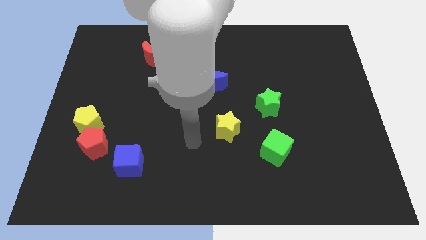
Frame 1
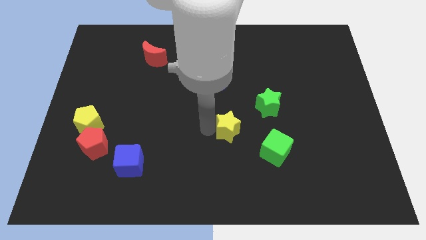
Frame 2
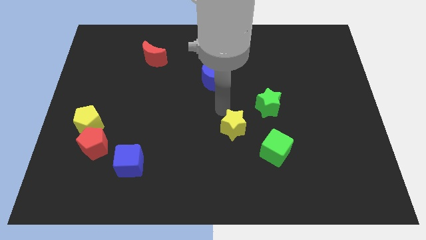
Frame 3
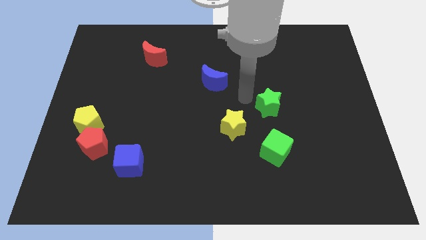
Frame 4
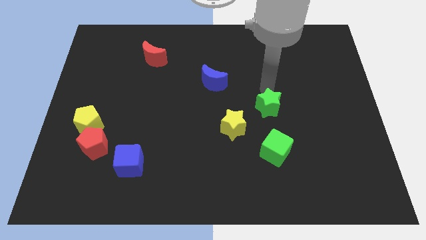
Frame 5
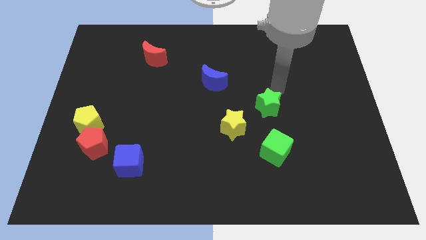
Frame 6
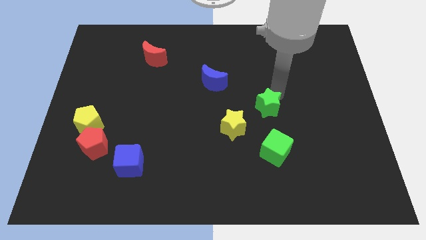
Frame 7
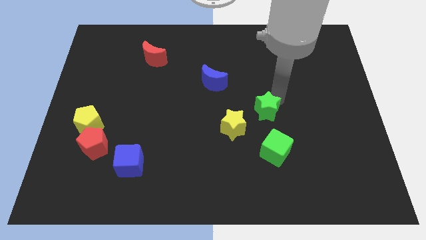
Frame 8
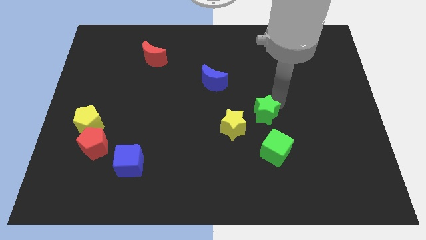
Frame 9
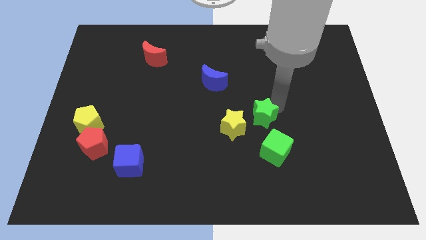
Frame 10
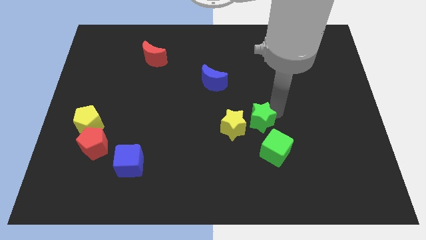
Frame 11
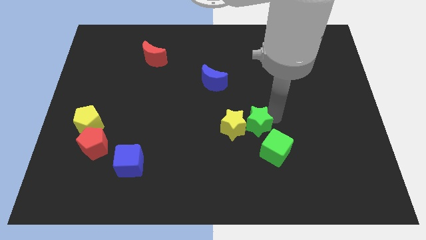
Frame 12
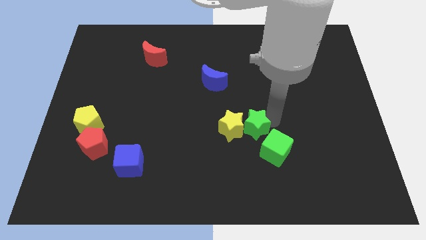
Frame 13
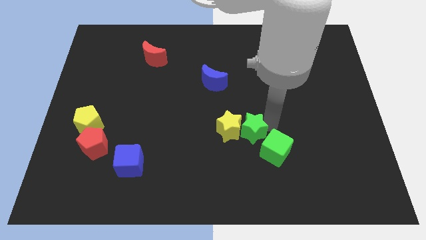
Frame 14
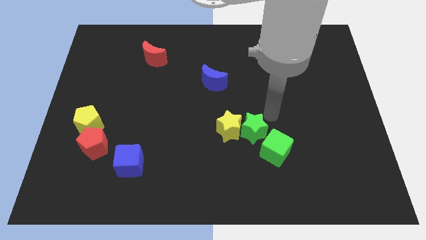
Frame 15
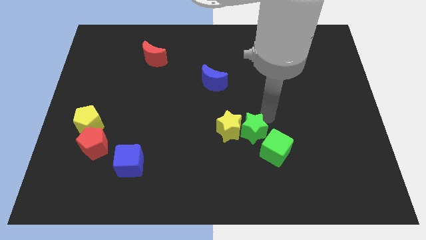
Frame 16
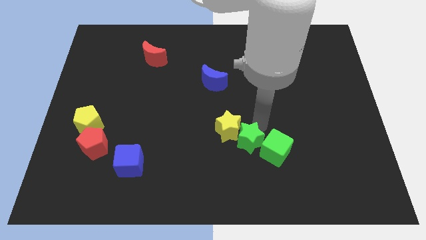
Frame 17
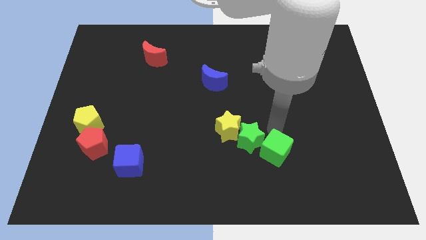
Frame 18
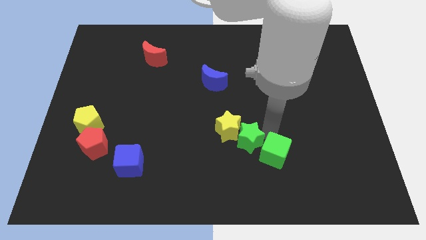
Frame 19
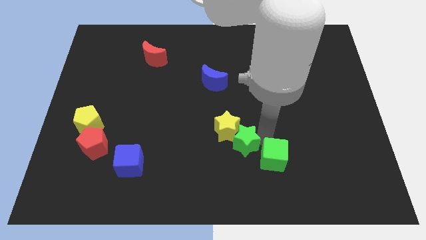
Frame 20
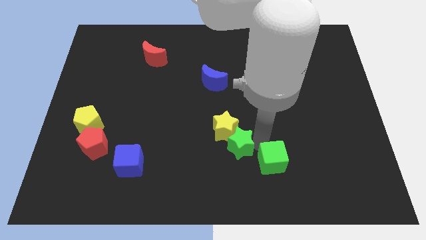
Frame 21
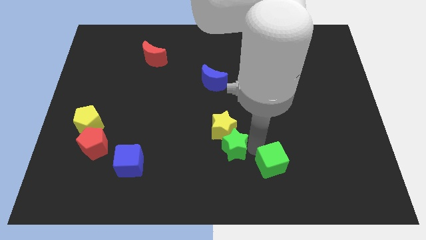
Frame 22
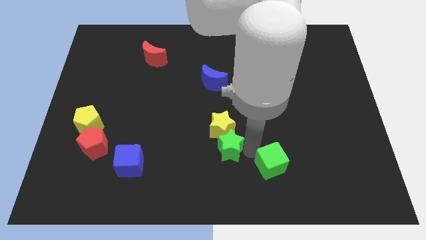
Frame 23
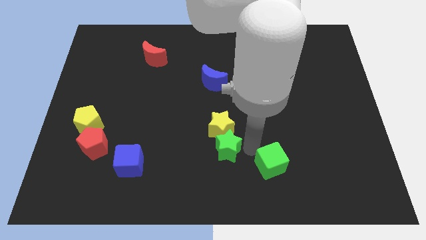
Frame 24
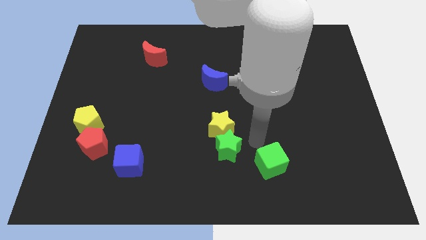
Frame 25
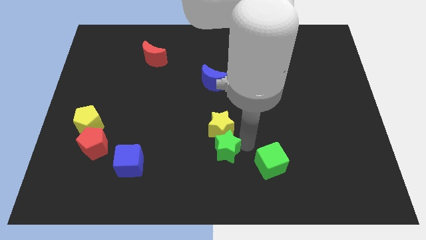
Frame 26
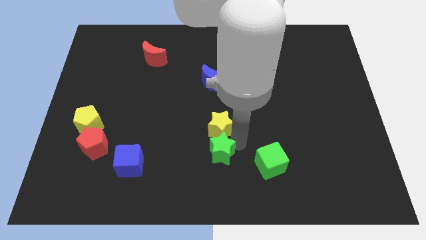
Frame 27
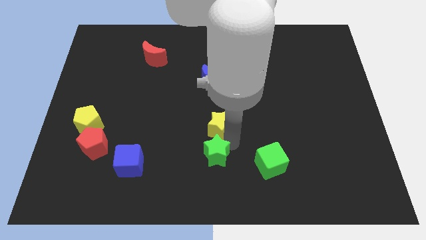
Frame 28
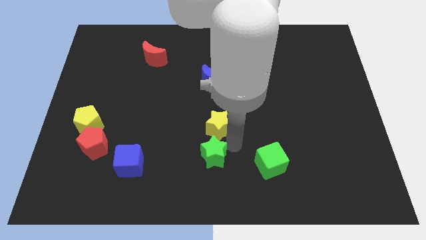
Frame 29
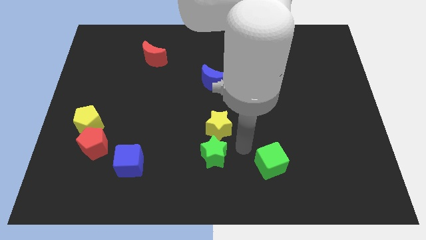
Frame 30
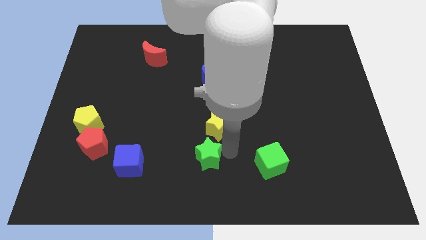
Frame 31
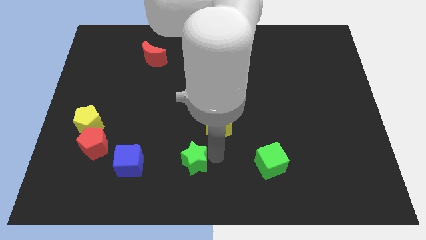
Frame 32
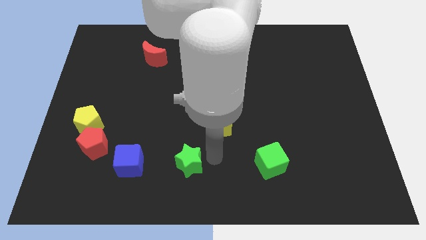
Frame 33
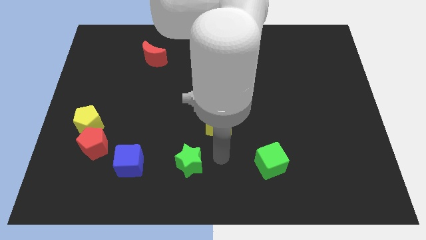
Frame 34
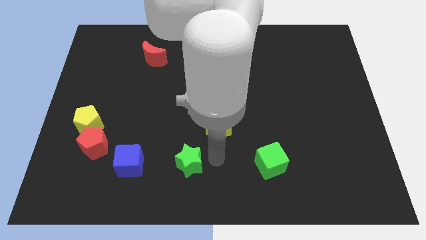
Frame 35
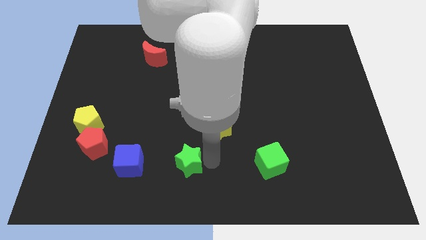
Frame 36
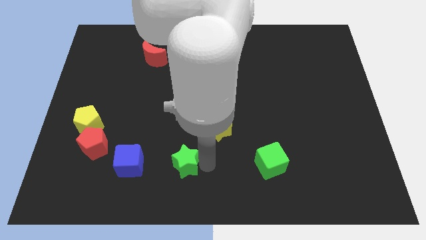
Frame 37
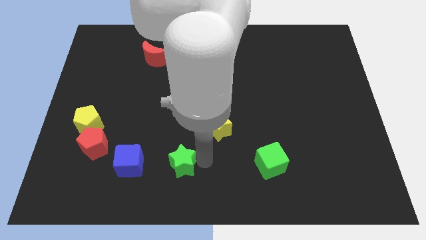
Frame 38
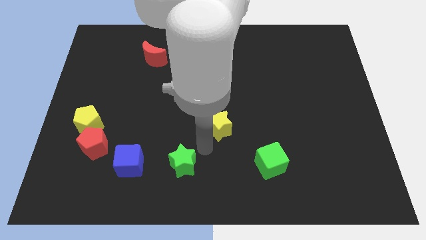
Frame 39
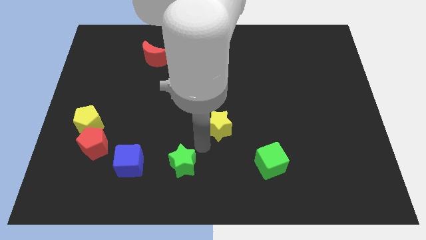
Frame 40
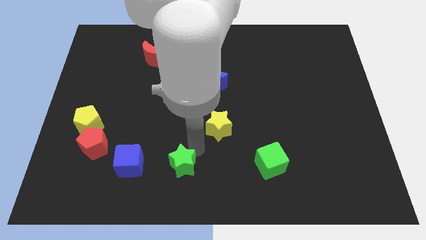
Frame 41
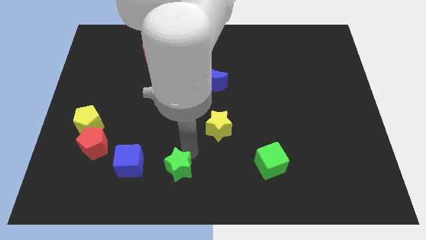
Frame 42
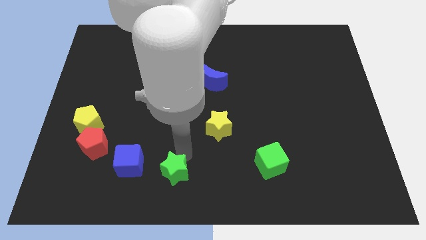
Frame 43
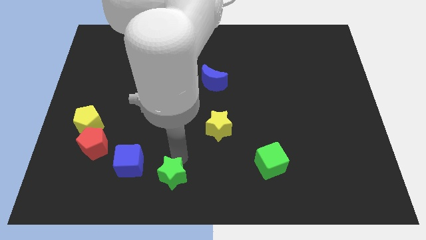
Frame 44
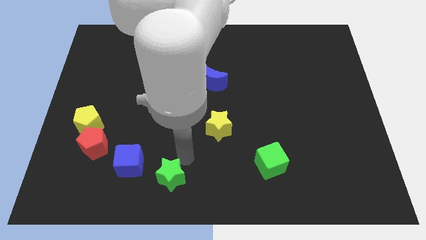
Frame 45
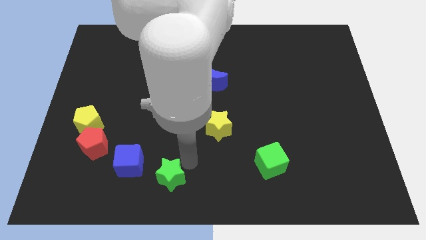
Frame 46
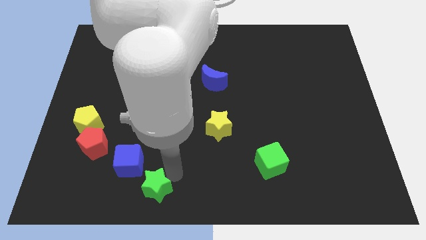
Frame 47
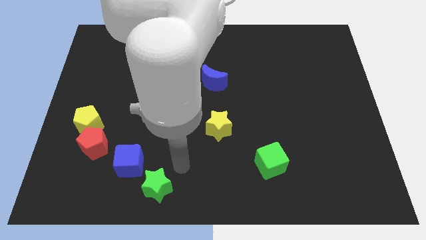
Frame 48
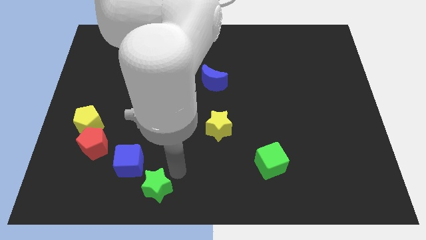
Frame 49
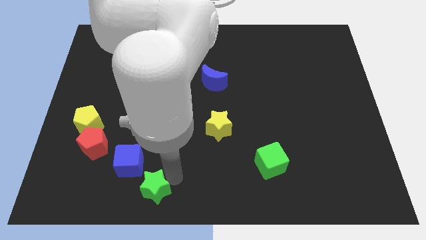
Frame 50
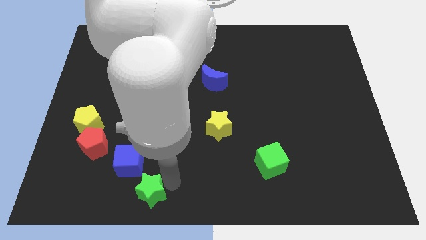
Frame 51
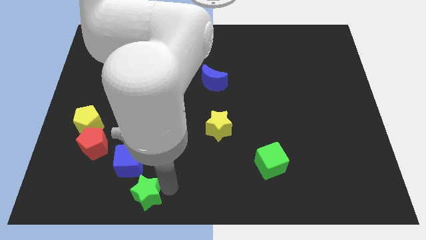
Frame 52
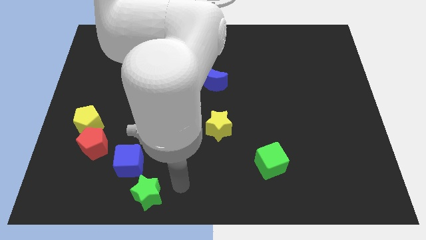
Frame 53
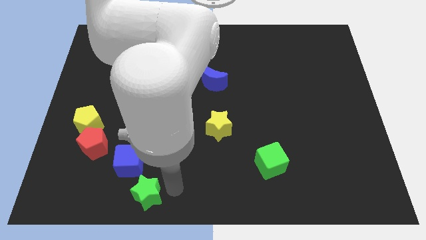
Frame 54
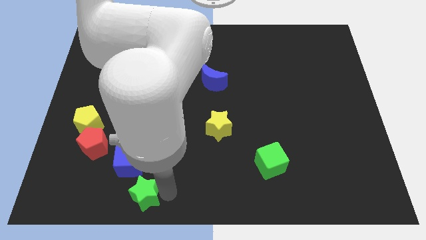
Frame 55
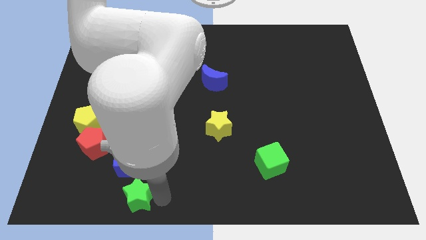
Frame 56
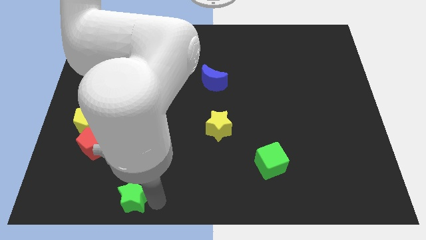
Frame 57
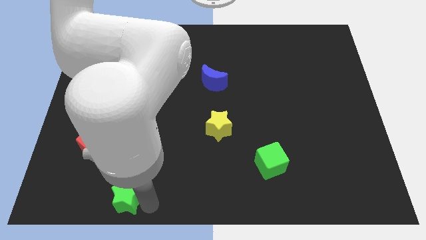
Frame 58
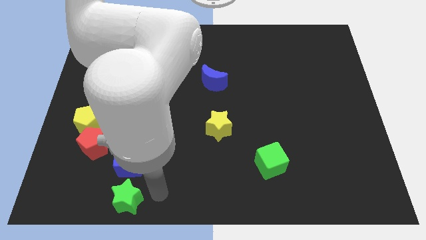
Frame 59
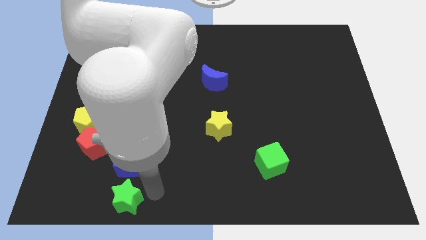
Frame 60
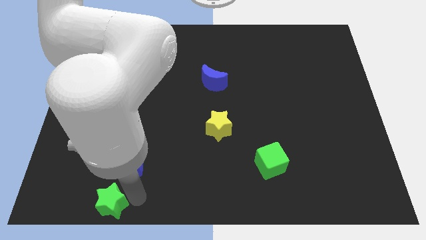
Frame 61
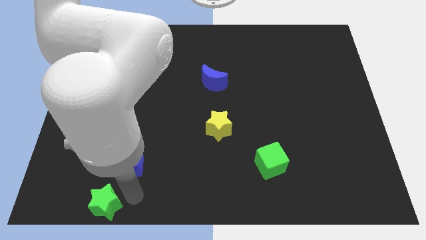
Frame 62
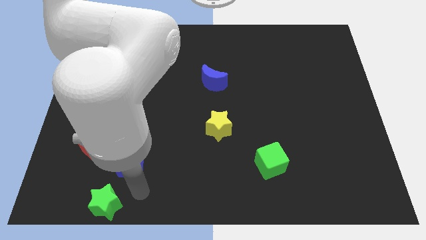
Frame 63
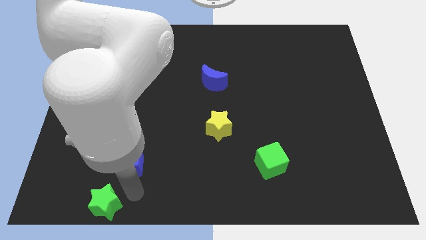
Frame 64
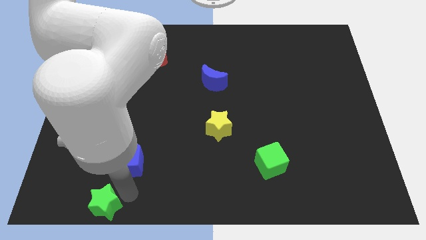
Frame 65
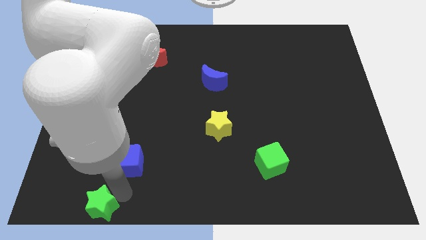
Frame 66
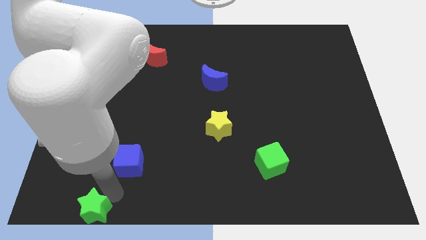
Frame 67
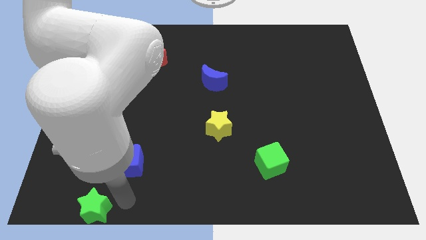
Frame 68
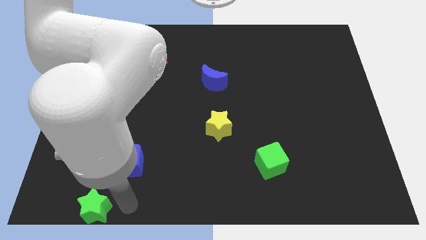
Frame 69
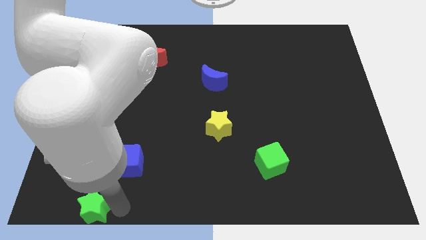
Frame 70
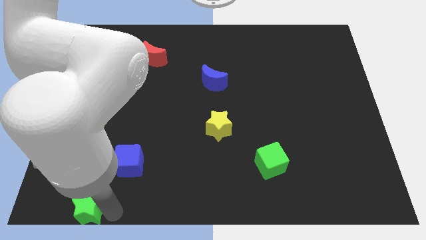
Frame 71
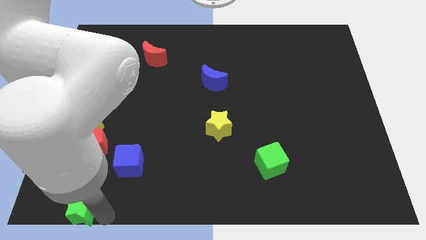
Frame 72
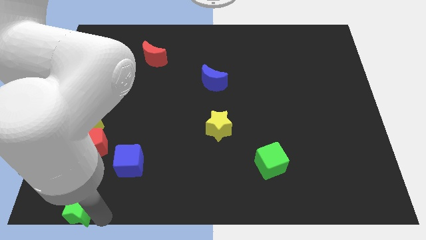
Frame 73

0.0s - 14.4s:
push the green star to the bottom left of the board
